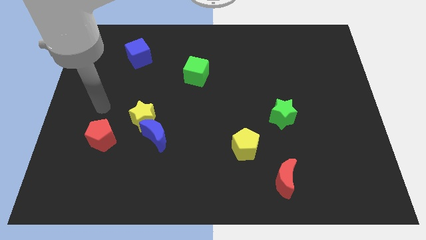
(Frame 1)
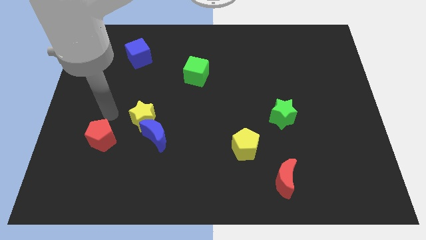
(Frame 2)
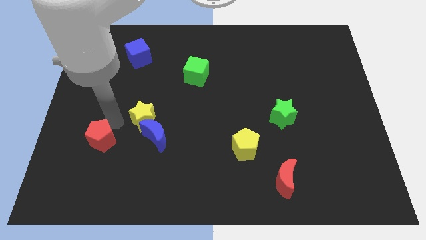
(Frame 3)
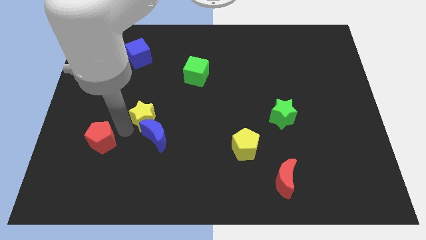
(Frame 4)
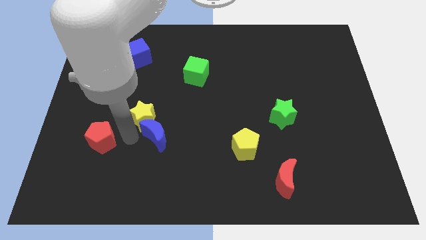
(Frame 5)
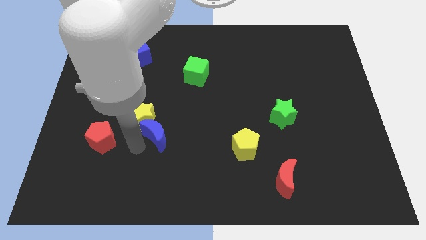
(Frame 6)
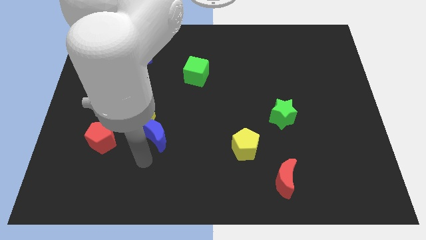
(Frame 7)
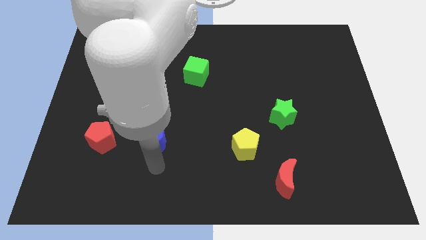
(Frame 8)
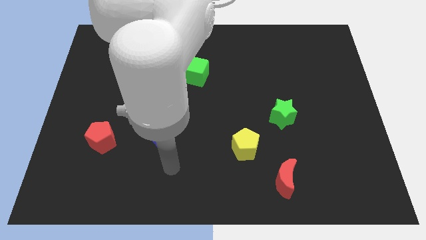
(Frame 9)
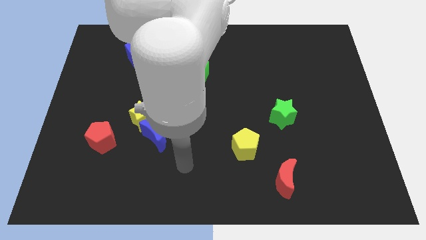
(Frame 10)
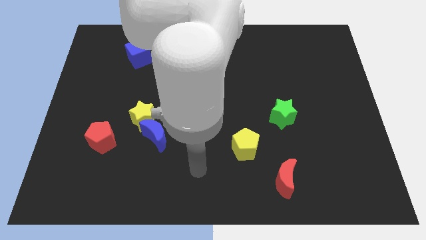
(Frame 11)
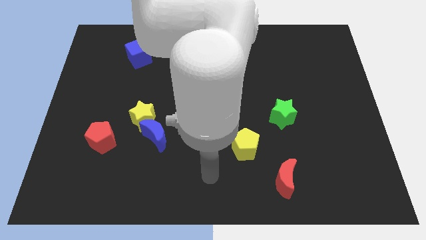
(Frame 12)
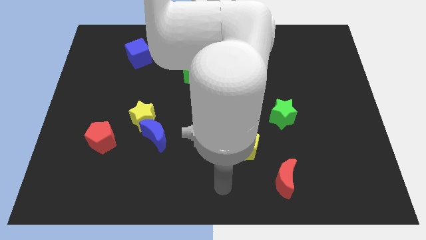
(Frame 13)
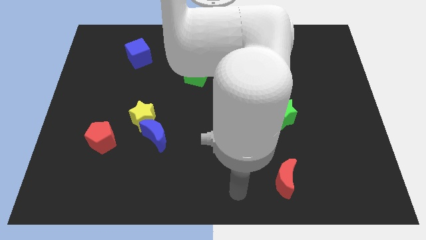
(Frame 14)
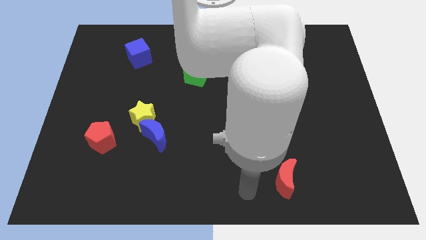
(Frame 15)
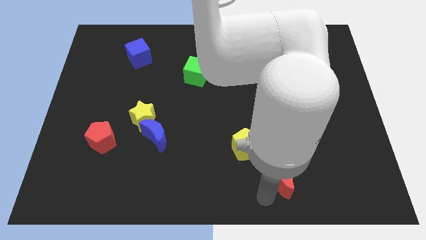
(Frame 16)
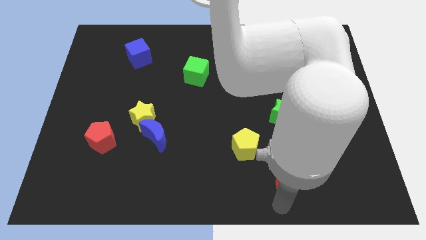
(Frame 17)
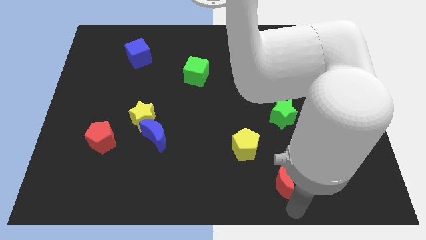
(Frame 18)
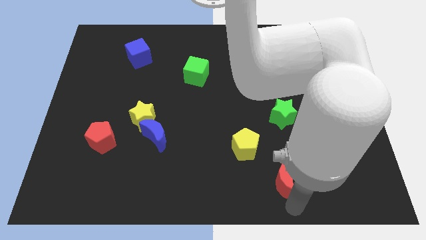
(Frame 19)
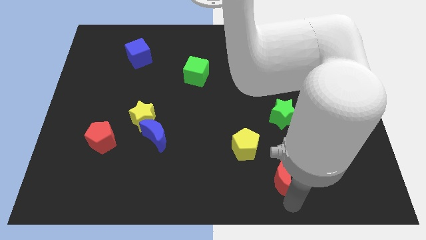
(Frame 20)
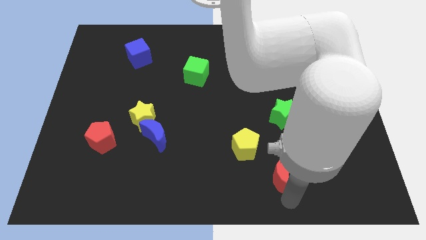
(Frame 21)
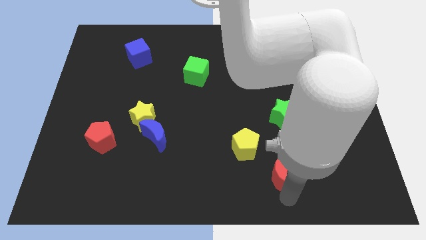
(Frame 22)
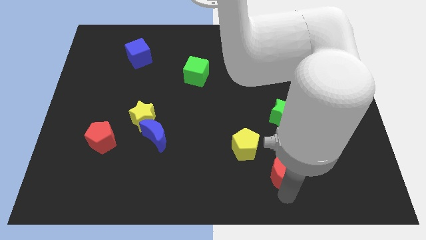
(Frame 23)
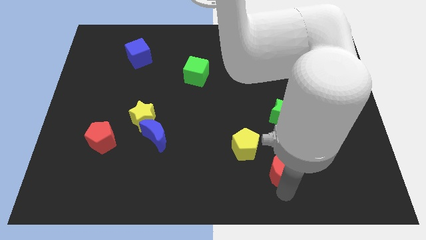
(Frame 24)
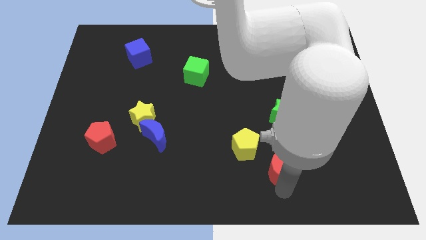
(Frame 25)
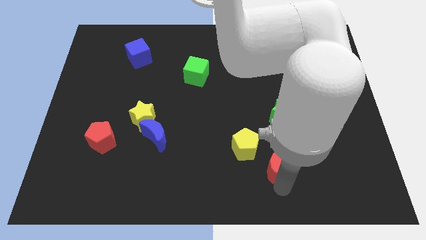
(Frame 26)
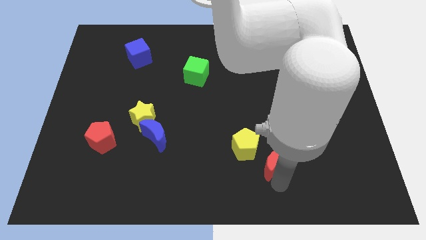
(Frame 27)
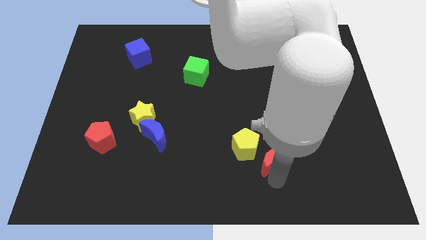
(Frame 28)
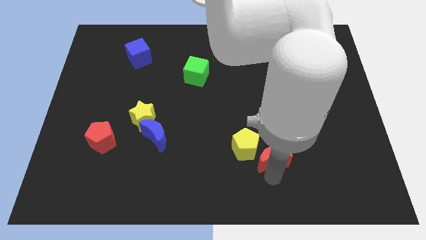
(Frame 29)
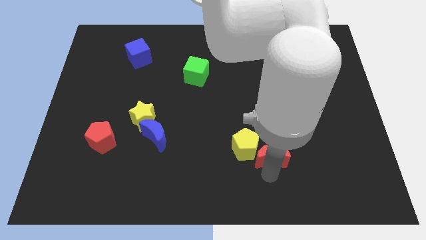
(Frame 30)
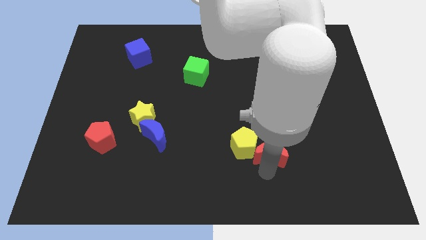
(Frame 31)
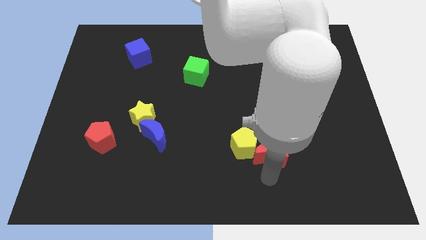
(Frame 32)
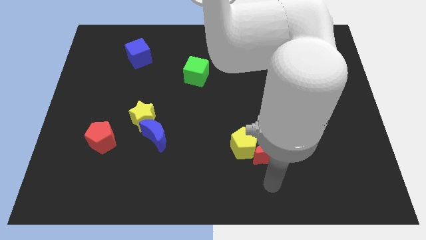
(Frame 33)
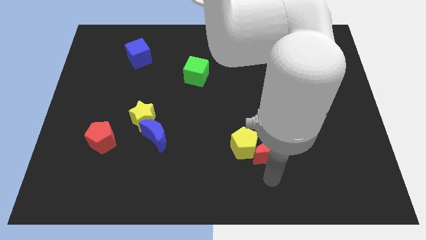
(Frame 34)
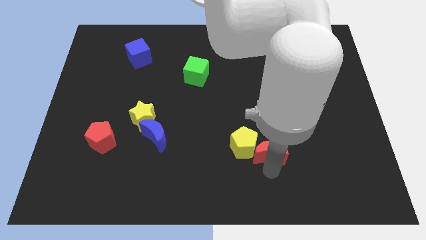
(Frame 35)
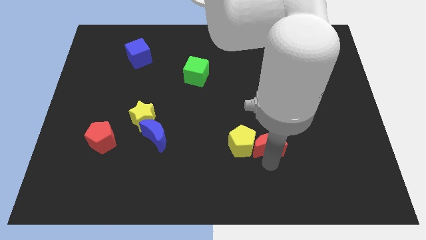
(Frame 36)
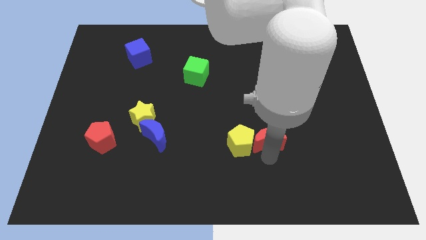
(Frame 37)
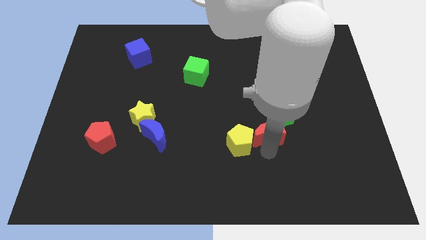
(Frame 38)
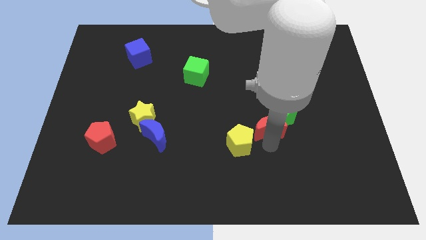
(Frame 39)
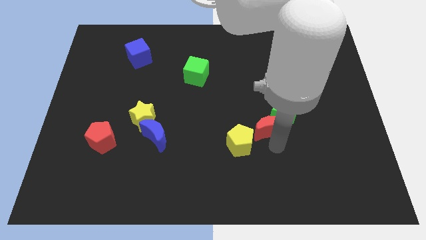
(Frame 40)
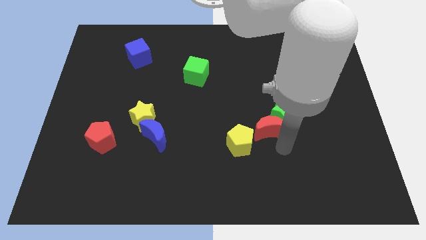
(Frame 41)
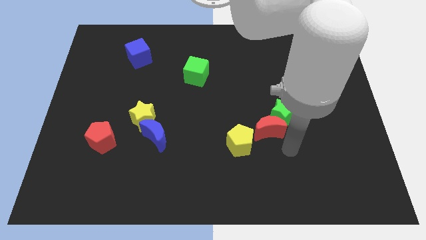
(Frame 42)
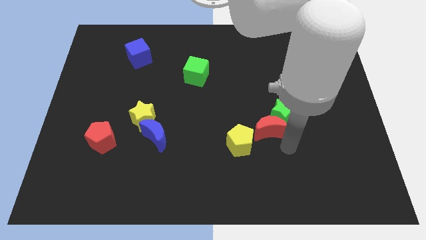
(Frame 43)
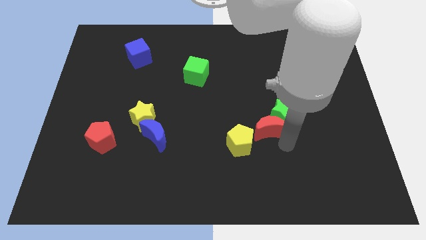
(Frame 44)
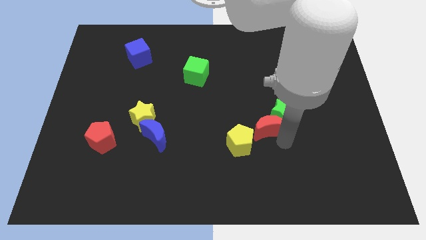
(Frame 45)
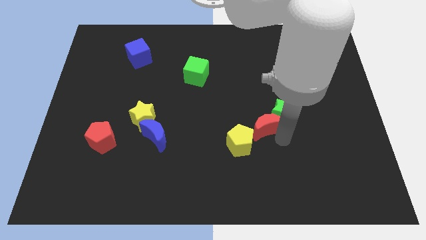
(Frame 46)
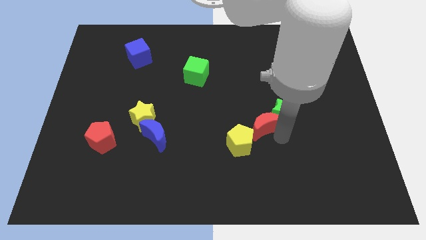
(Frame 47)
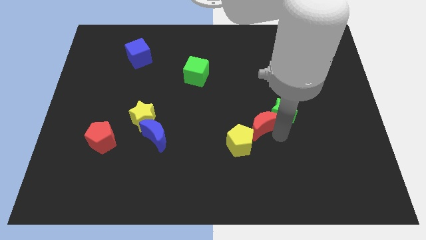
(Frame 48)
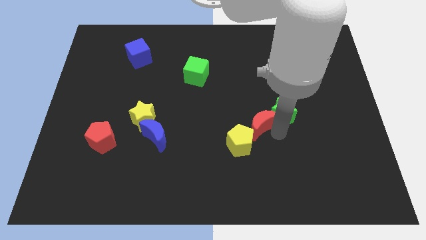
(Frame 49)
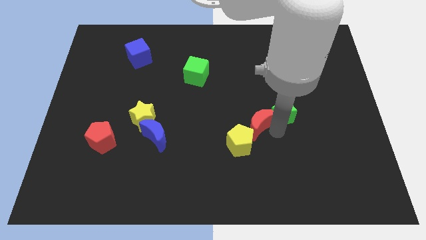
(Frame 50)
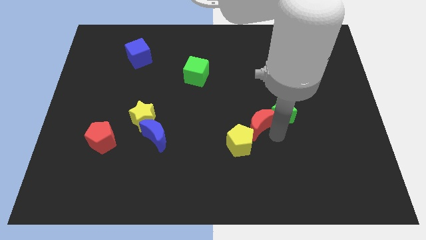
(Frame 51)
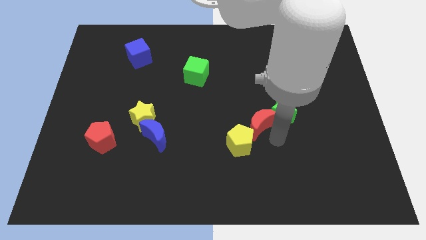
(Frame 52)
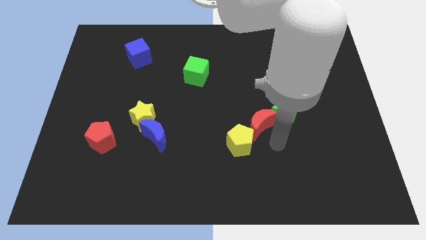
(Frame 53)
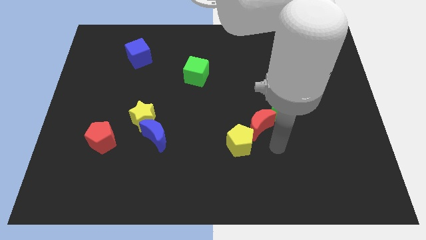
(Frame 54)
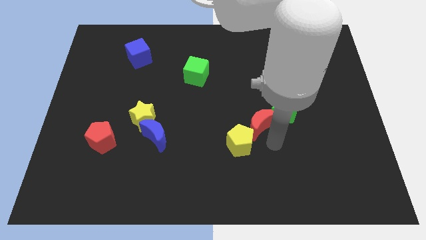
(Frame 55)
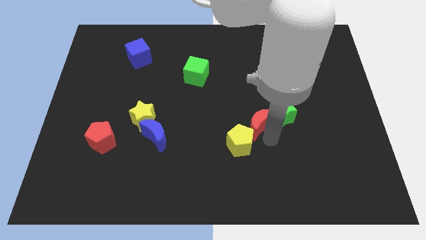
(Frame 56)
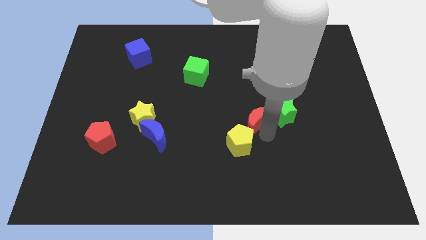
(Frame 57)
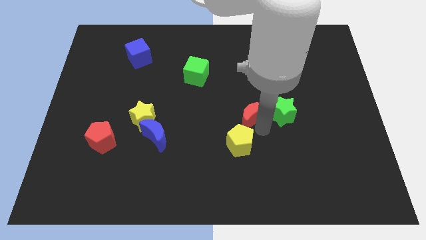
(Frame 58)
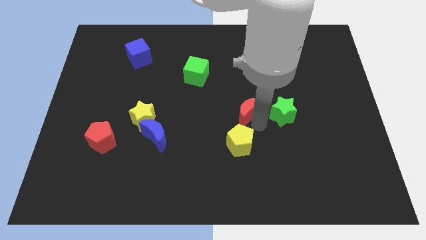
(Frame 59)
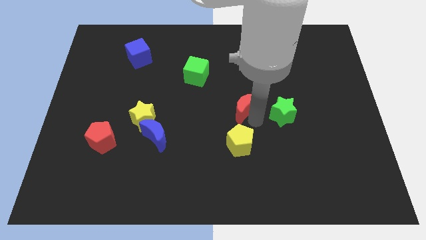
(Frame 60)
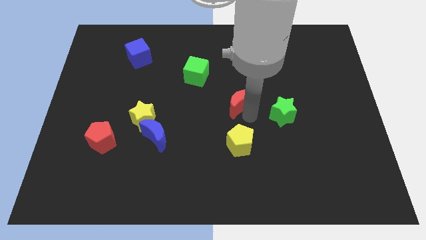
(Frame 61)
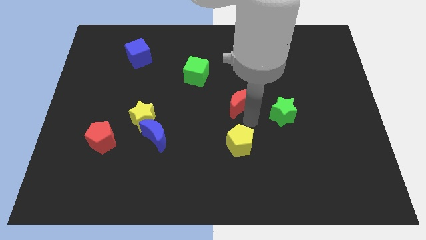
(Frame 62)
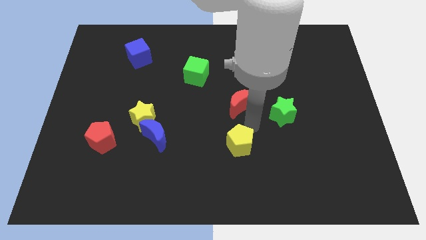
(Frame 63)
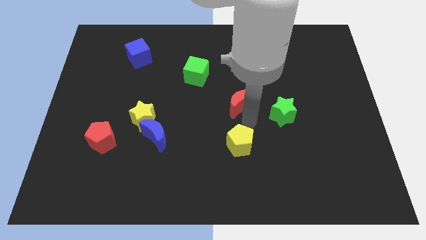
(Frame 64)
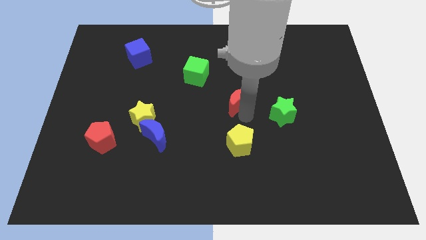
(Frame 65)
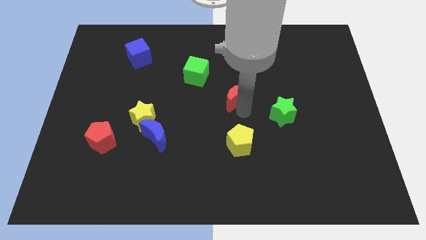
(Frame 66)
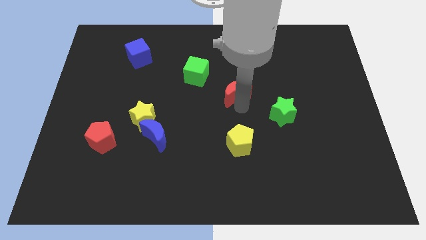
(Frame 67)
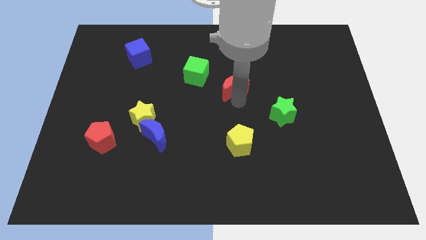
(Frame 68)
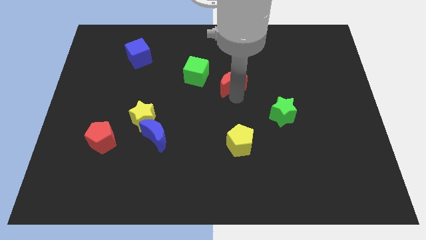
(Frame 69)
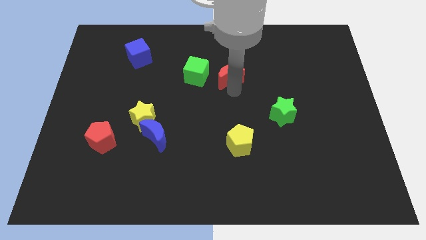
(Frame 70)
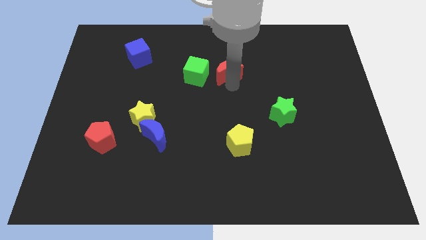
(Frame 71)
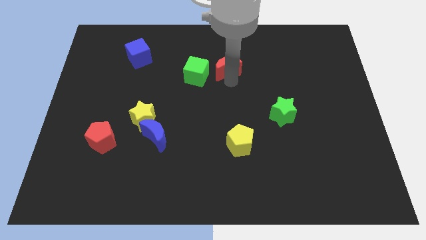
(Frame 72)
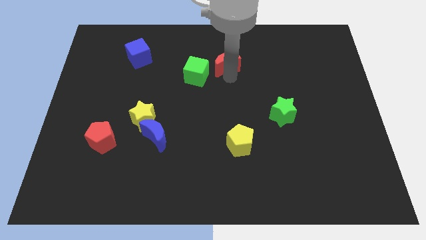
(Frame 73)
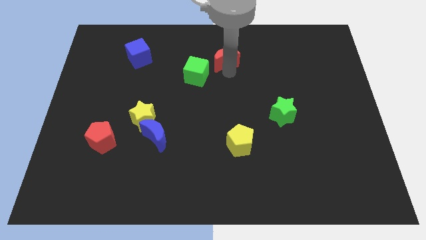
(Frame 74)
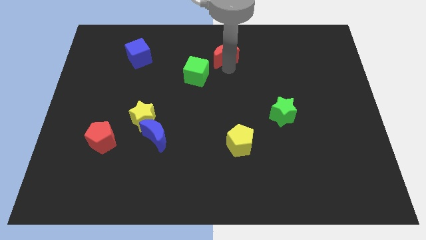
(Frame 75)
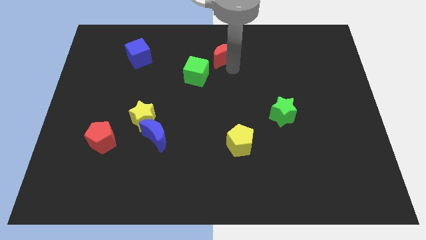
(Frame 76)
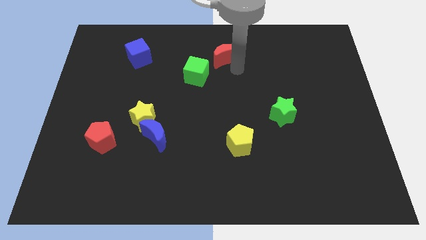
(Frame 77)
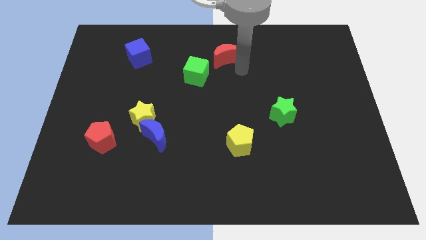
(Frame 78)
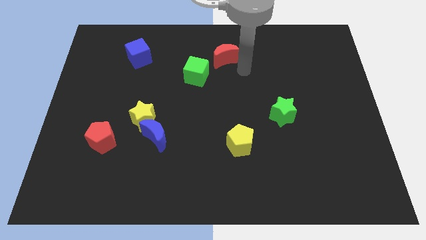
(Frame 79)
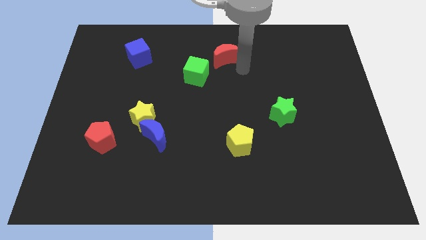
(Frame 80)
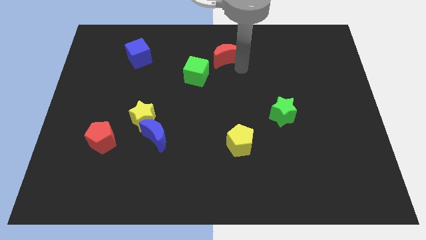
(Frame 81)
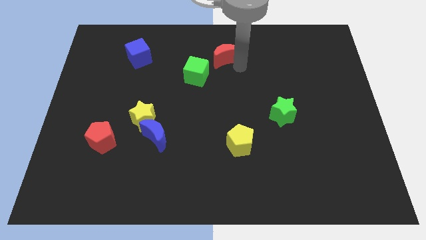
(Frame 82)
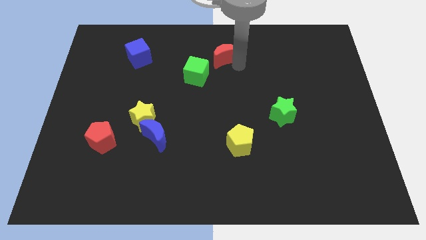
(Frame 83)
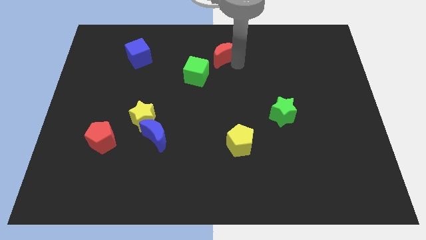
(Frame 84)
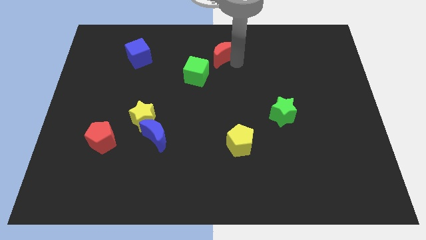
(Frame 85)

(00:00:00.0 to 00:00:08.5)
move the red moon to the top
